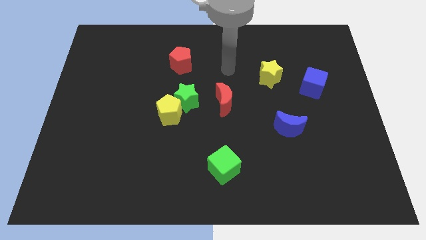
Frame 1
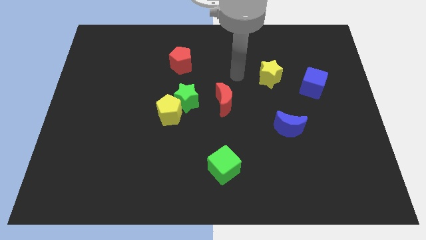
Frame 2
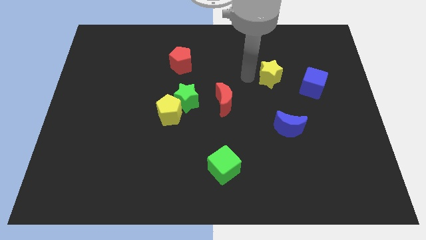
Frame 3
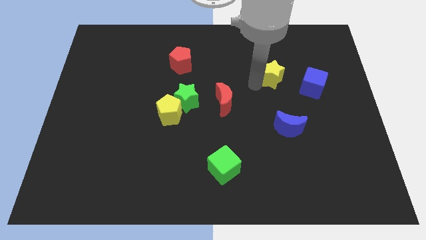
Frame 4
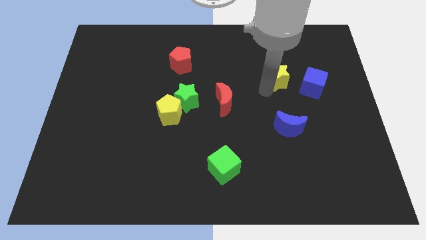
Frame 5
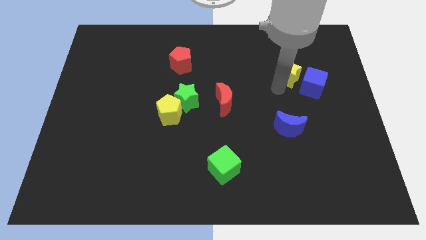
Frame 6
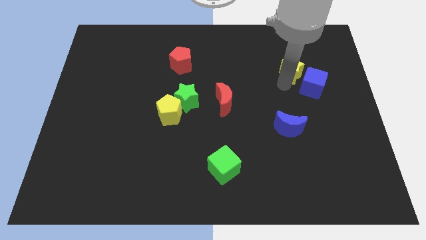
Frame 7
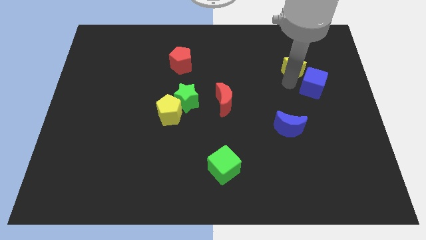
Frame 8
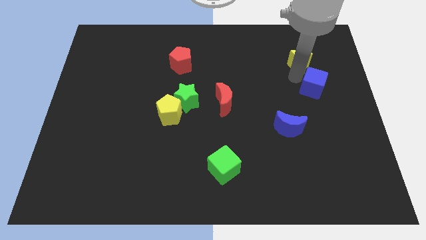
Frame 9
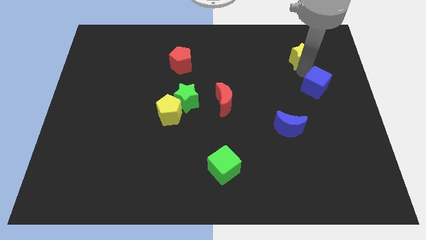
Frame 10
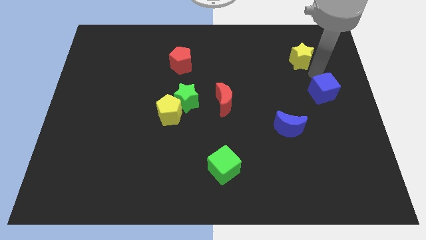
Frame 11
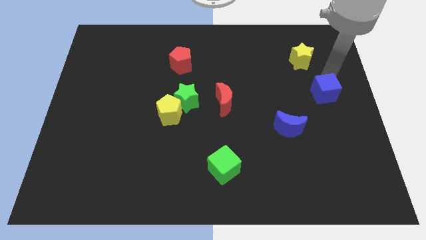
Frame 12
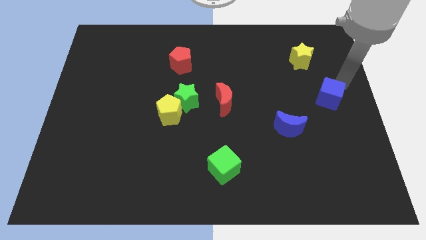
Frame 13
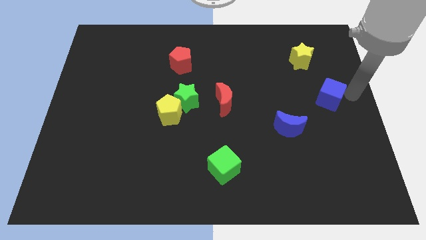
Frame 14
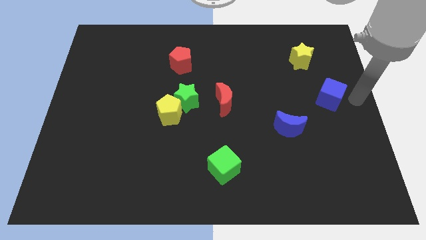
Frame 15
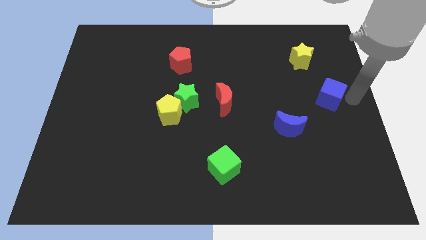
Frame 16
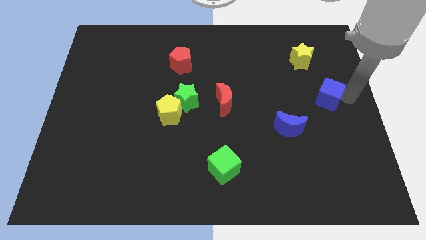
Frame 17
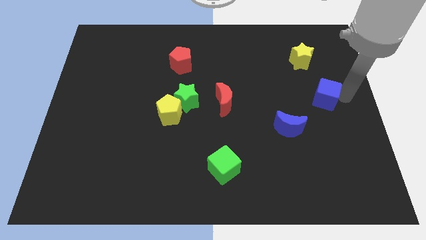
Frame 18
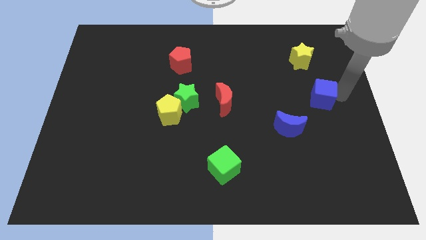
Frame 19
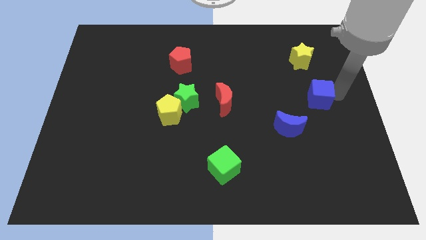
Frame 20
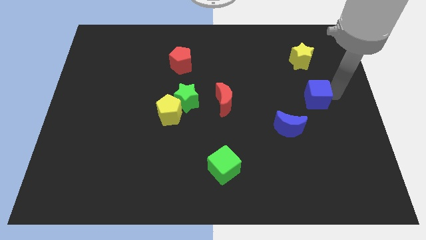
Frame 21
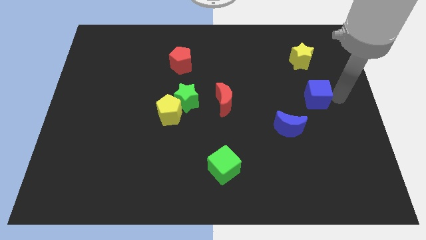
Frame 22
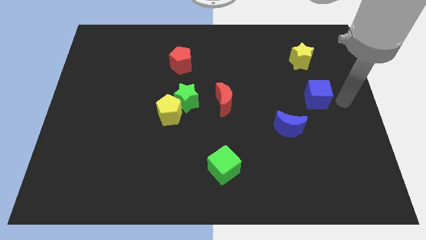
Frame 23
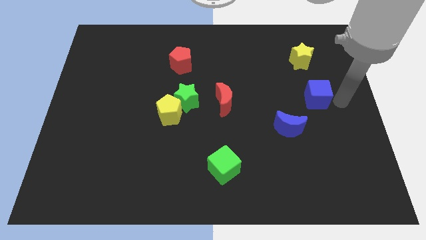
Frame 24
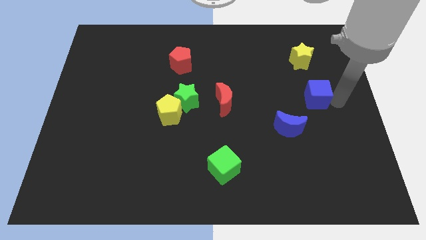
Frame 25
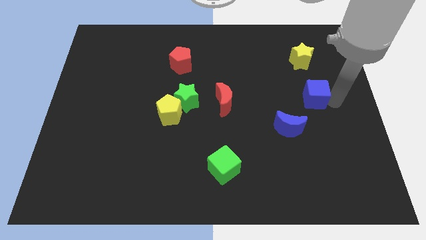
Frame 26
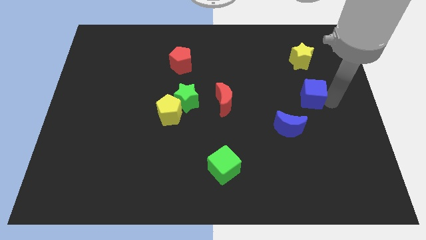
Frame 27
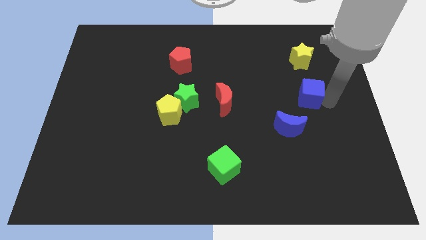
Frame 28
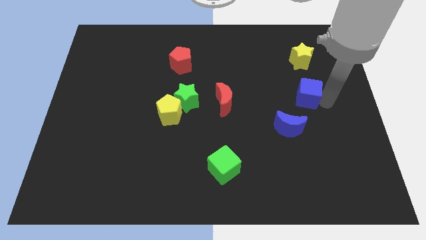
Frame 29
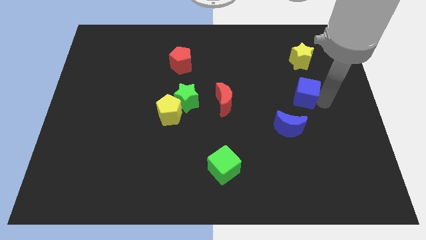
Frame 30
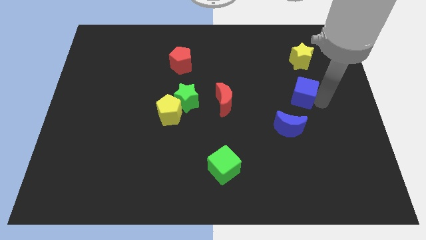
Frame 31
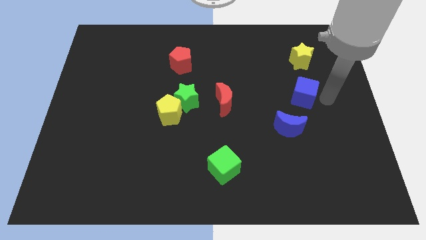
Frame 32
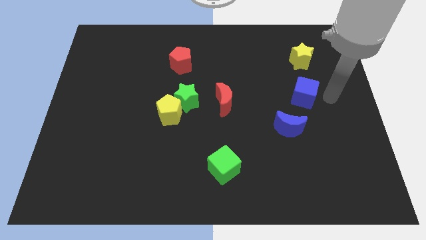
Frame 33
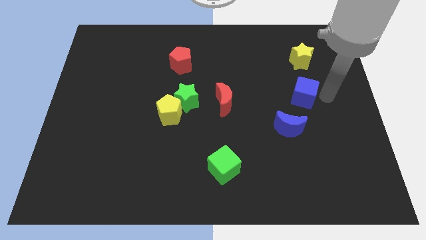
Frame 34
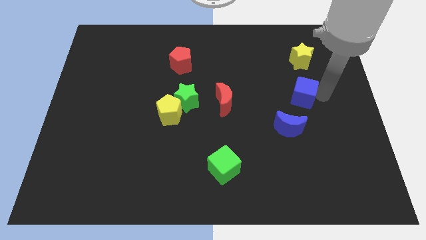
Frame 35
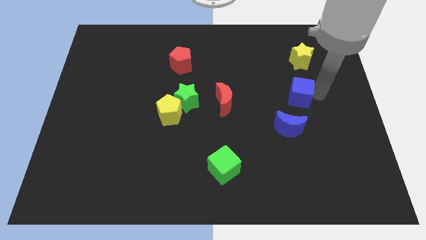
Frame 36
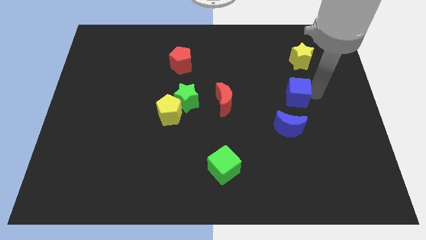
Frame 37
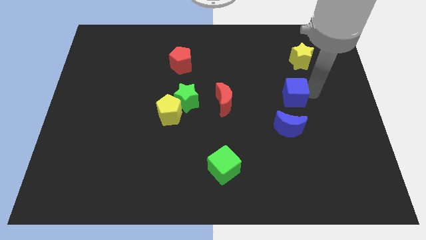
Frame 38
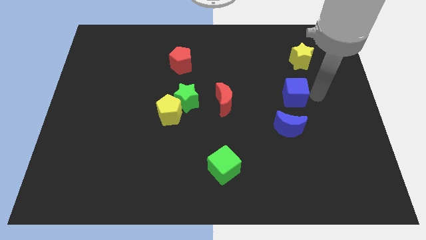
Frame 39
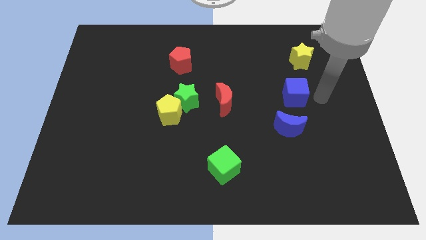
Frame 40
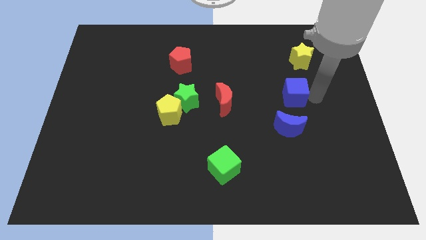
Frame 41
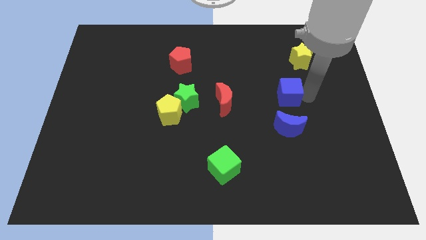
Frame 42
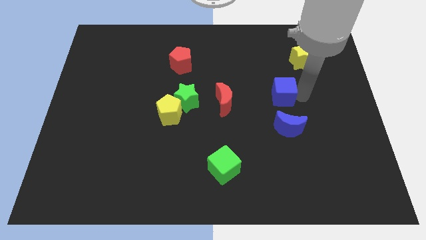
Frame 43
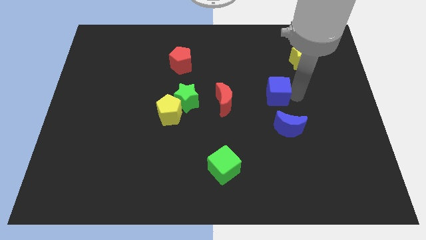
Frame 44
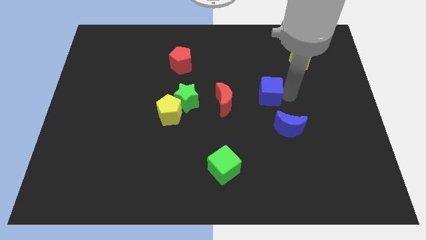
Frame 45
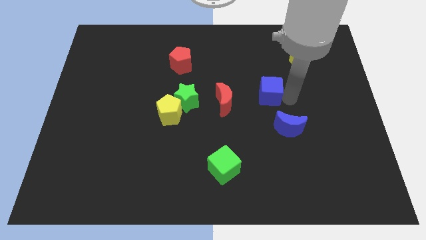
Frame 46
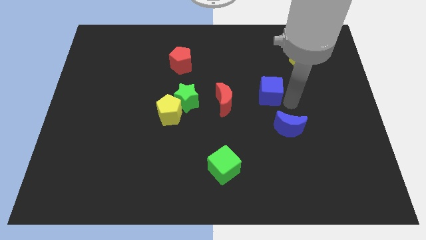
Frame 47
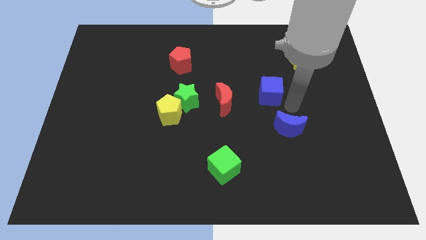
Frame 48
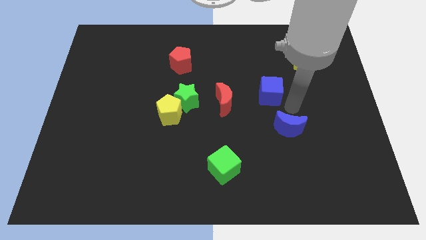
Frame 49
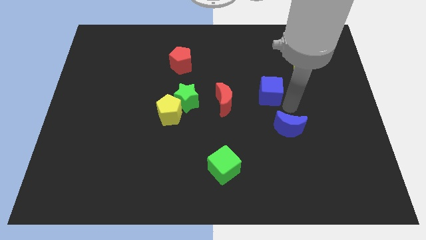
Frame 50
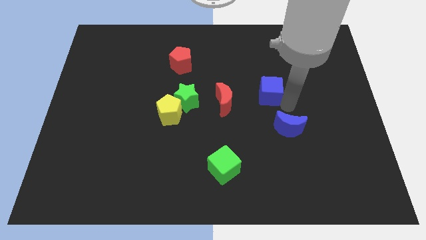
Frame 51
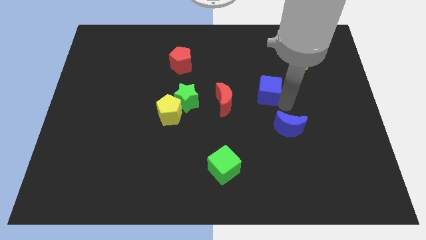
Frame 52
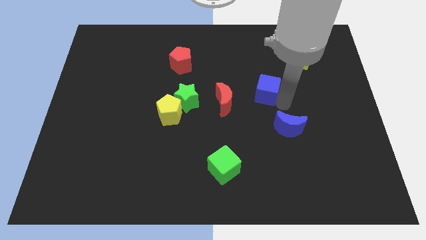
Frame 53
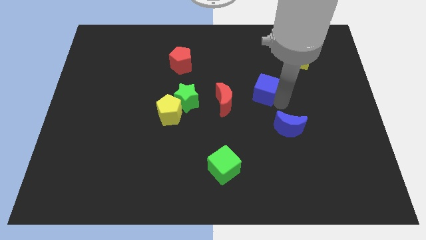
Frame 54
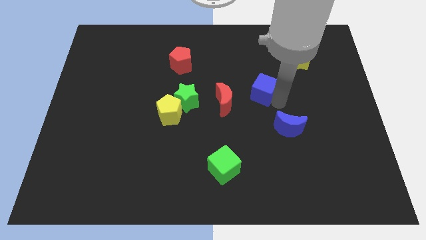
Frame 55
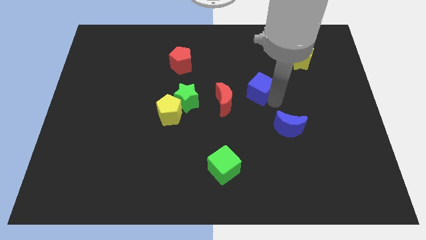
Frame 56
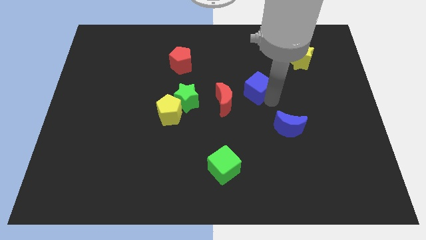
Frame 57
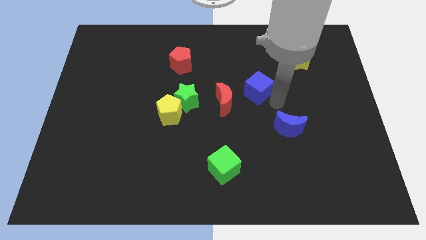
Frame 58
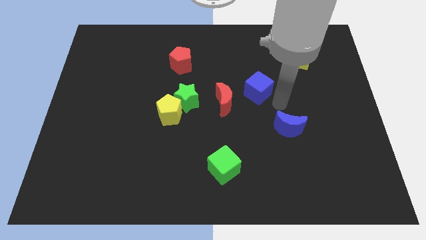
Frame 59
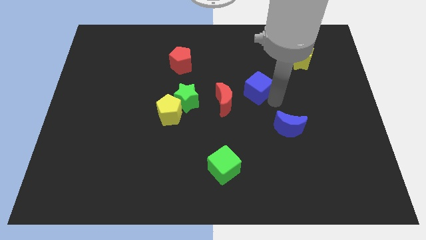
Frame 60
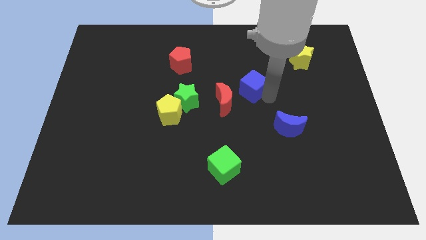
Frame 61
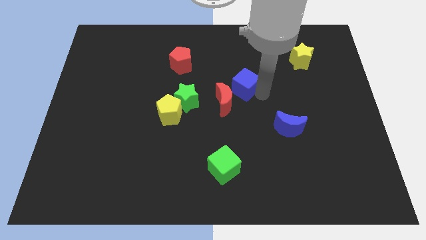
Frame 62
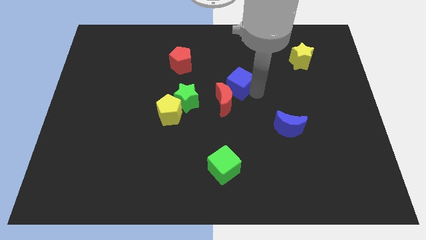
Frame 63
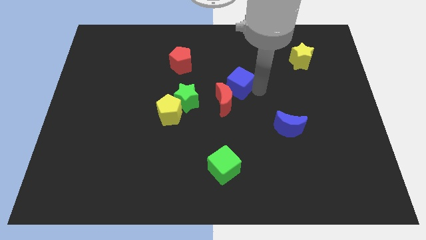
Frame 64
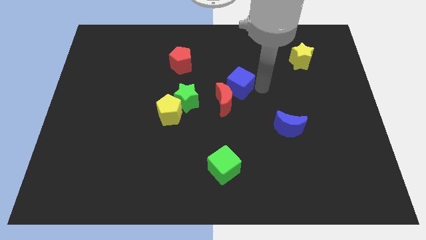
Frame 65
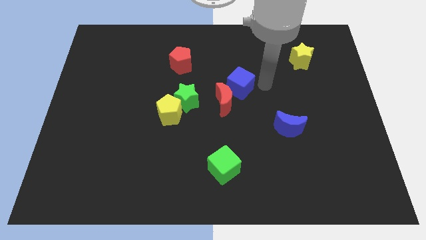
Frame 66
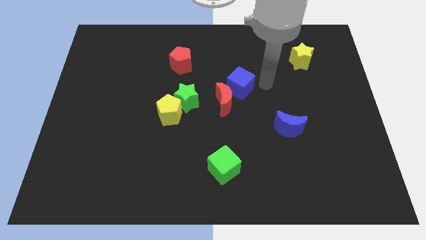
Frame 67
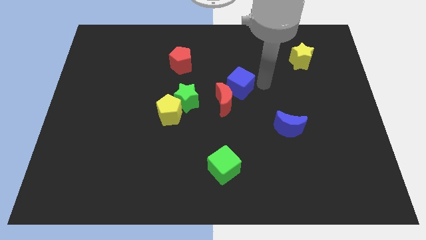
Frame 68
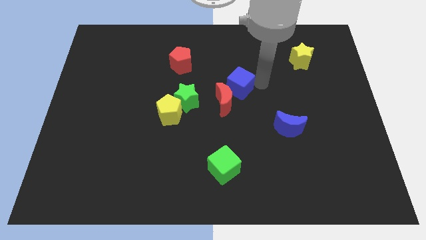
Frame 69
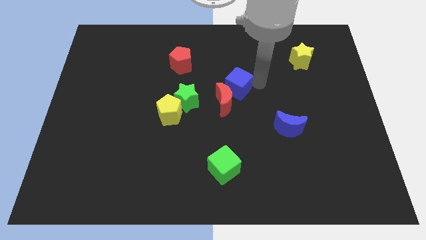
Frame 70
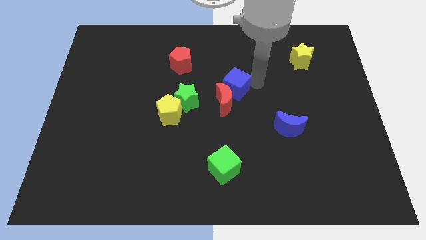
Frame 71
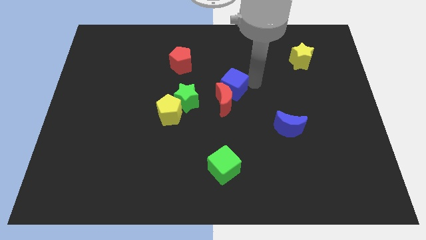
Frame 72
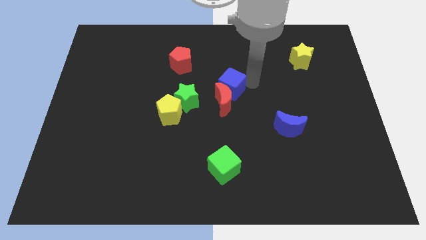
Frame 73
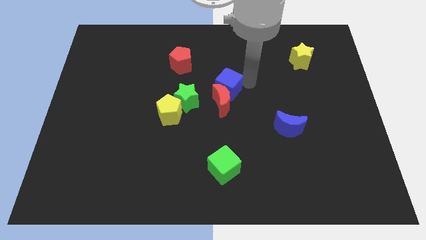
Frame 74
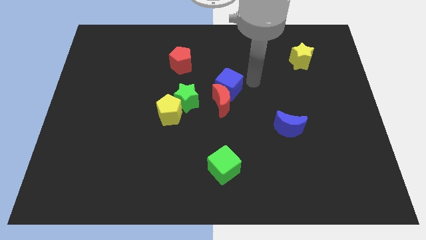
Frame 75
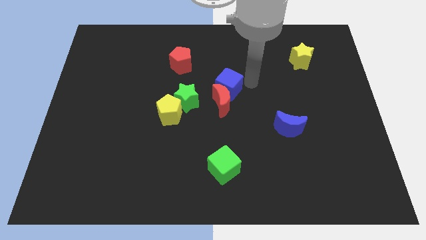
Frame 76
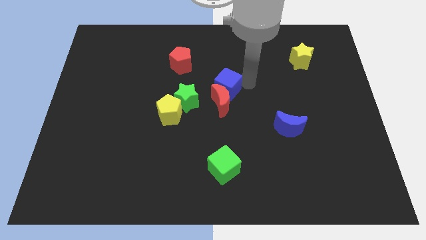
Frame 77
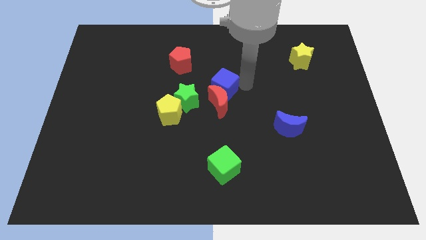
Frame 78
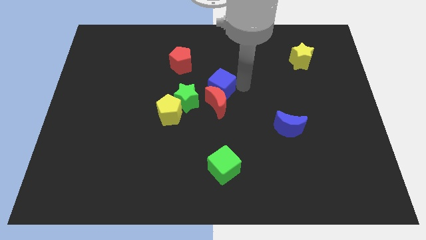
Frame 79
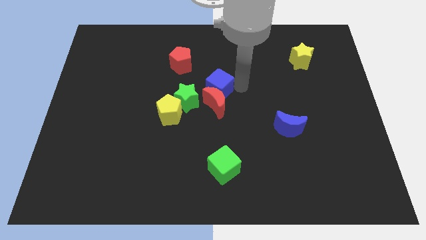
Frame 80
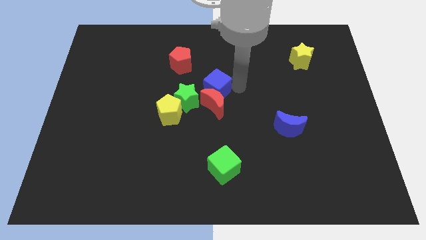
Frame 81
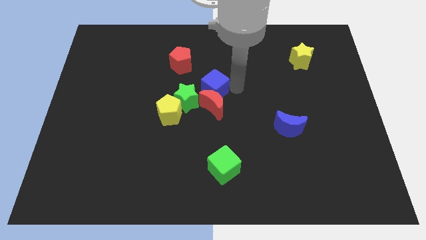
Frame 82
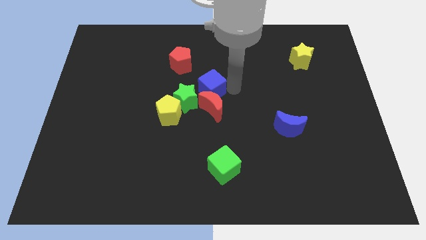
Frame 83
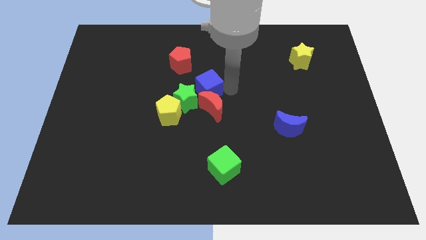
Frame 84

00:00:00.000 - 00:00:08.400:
put the blue cube next to the green star
